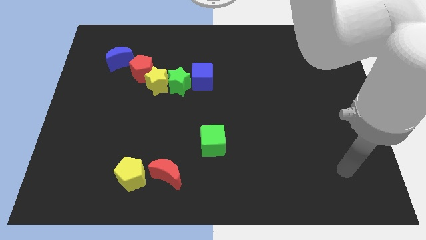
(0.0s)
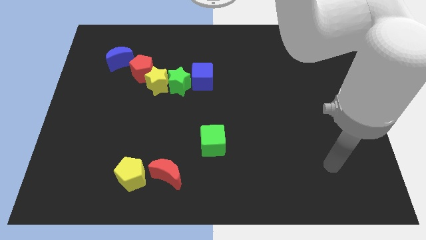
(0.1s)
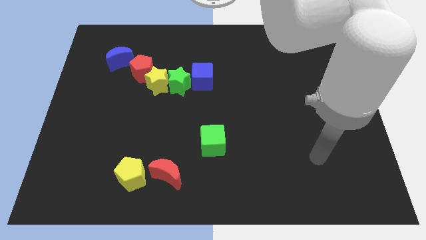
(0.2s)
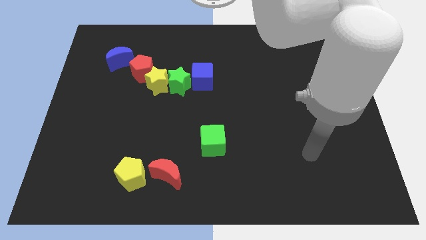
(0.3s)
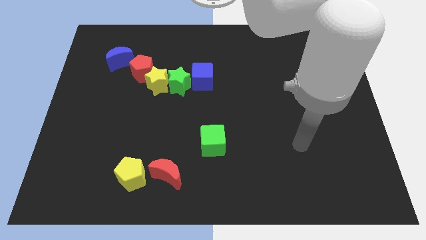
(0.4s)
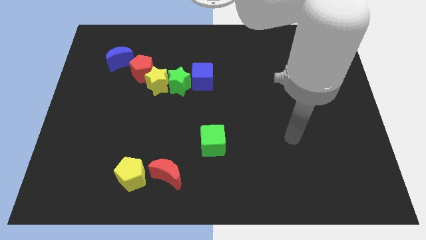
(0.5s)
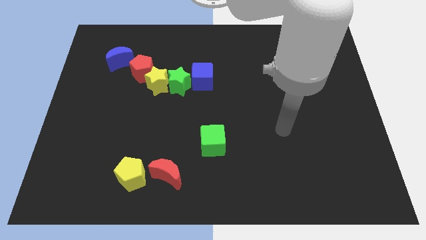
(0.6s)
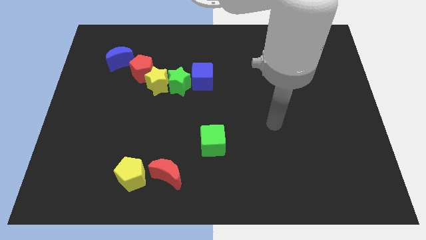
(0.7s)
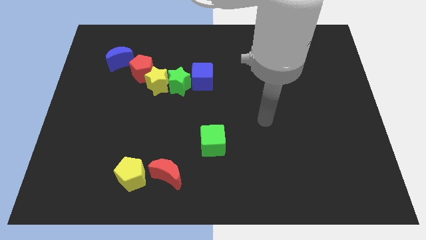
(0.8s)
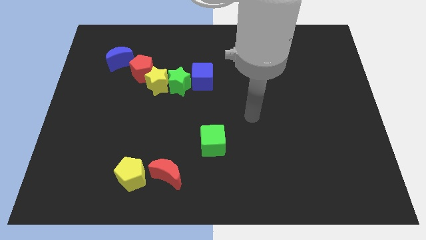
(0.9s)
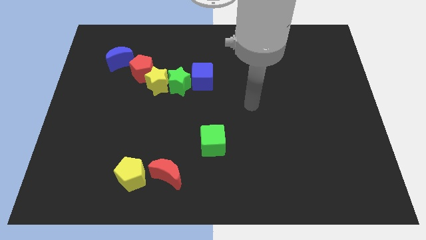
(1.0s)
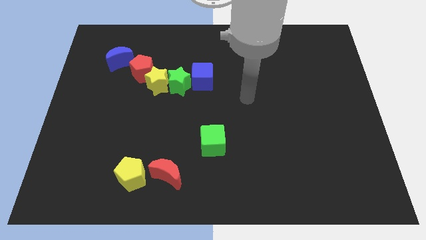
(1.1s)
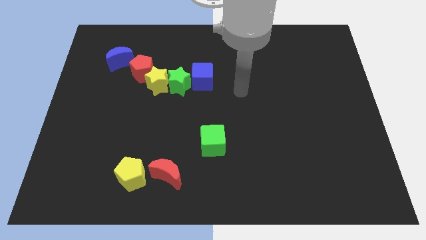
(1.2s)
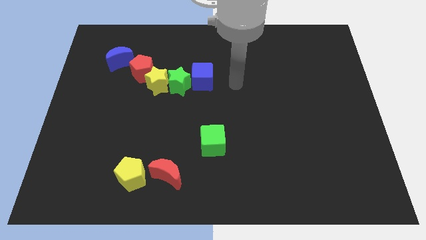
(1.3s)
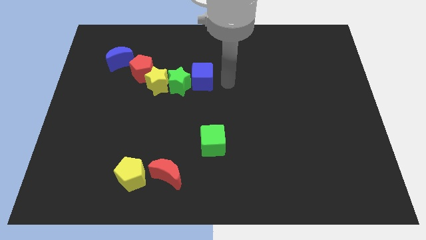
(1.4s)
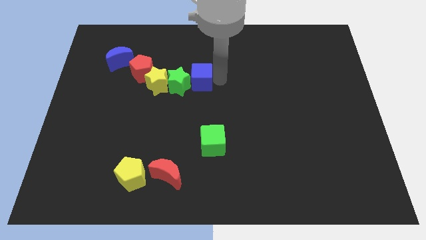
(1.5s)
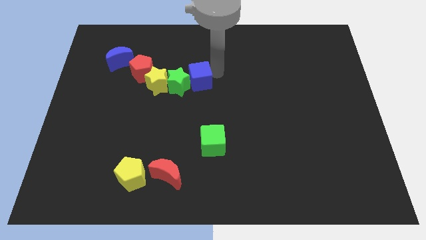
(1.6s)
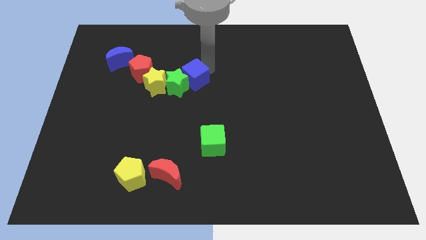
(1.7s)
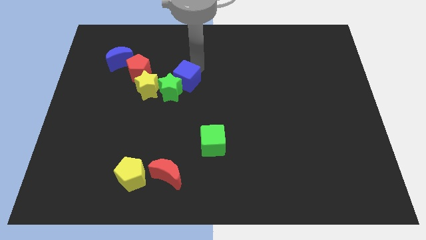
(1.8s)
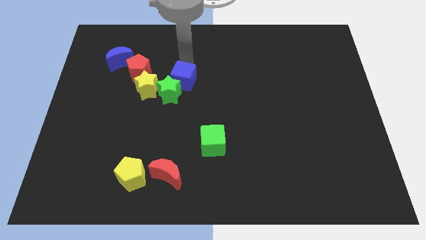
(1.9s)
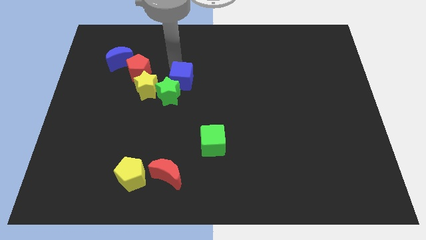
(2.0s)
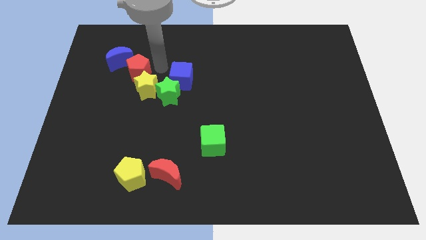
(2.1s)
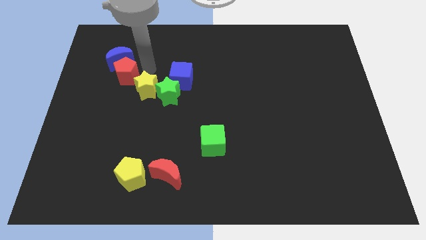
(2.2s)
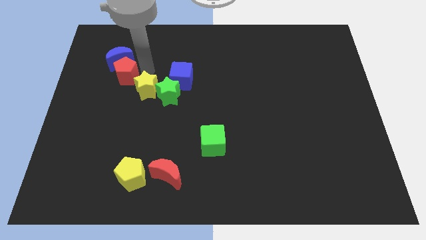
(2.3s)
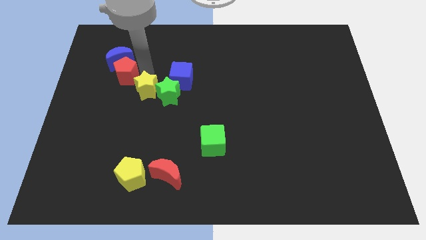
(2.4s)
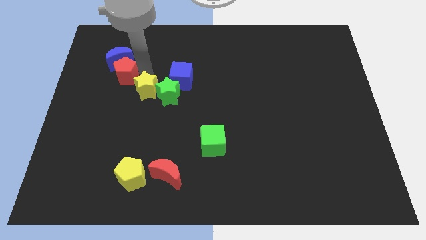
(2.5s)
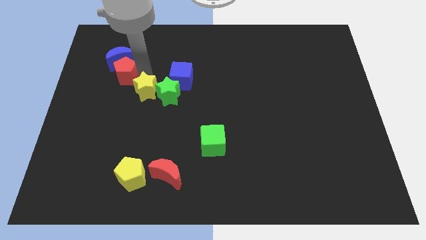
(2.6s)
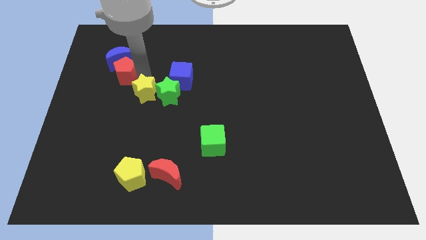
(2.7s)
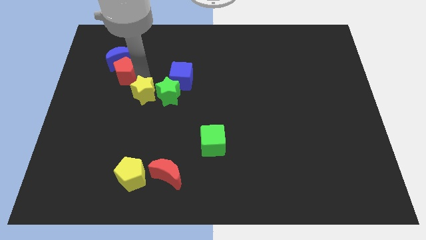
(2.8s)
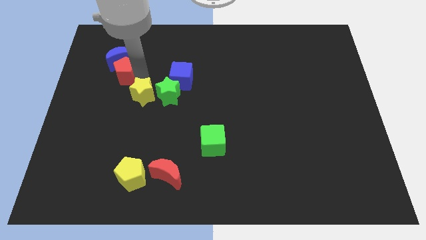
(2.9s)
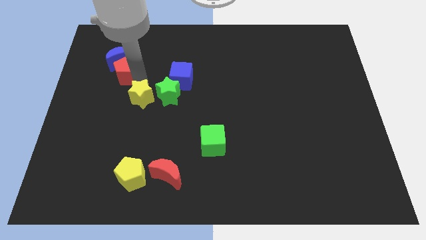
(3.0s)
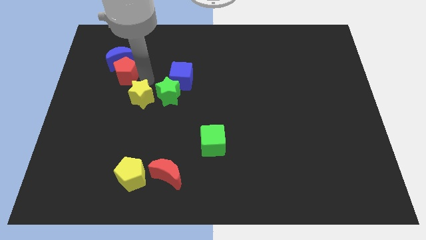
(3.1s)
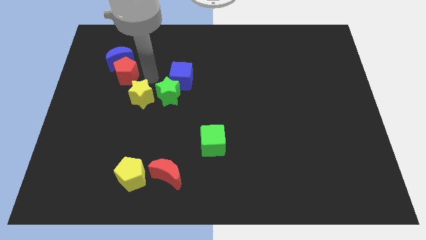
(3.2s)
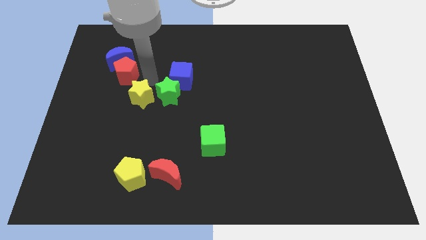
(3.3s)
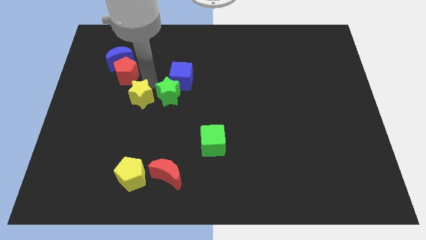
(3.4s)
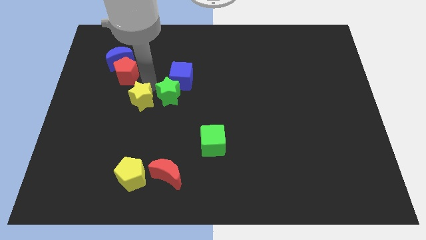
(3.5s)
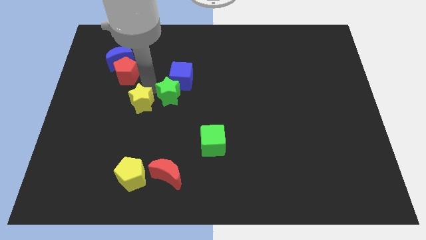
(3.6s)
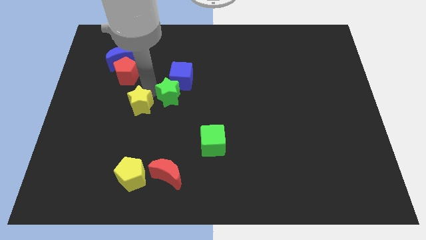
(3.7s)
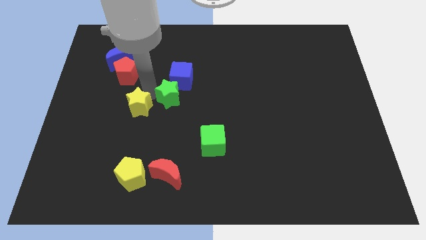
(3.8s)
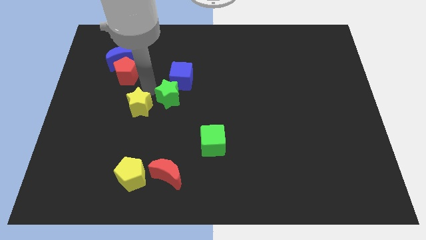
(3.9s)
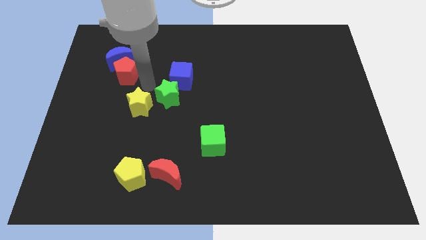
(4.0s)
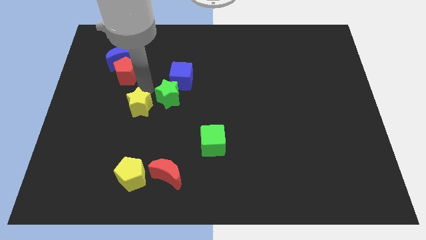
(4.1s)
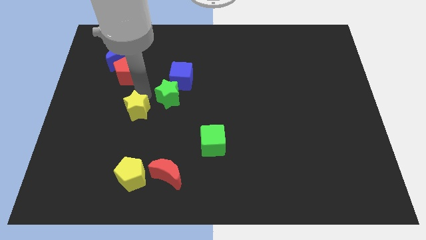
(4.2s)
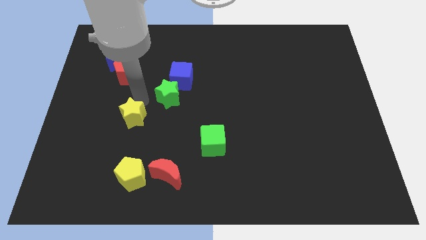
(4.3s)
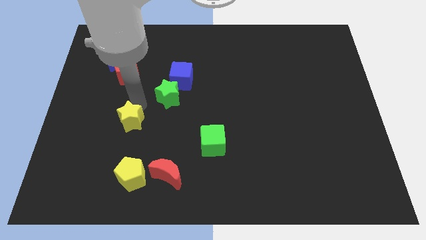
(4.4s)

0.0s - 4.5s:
move the yellow star away from the green star and red pentagon

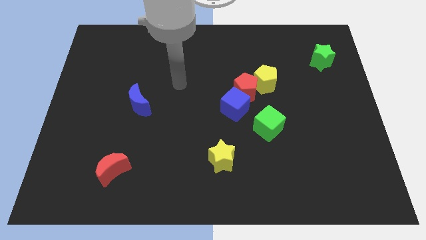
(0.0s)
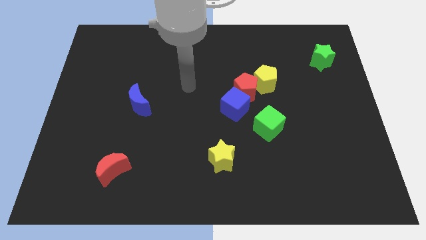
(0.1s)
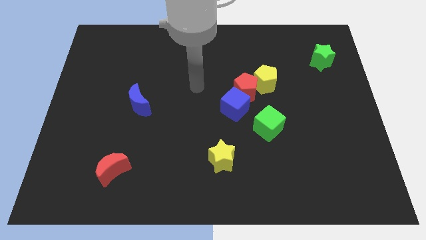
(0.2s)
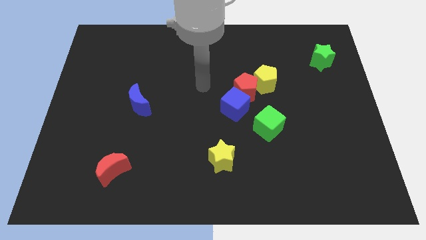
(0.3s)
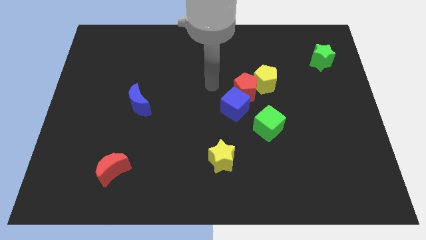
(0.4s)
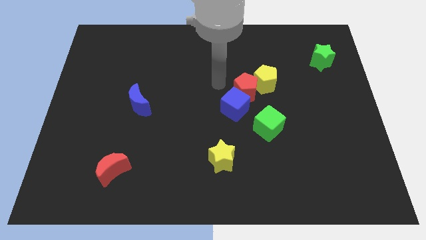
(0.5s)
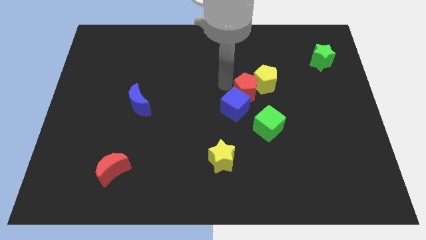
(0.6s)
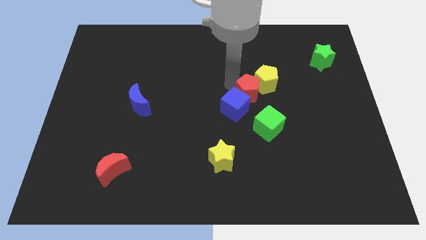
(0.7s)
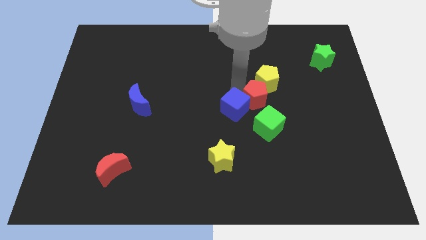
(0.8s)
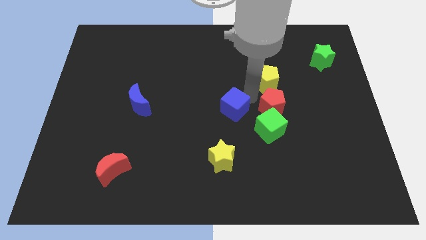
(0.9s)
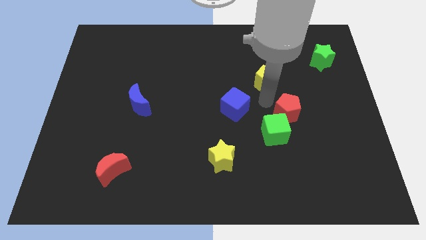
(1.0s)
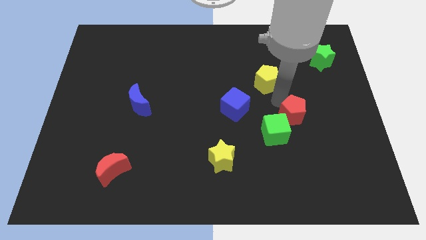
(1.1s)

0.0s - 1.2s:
move the yellow pentagon away from the red pentagon

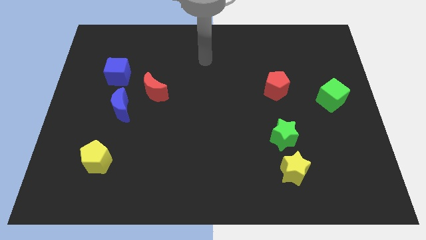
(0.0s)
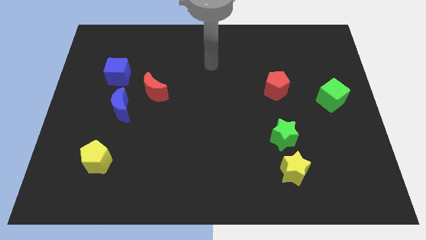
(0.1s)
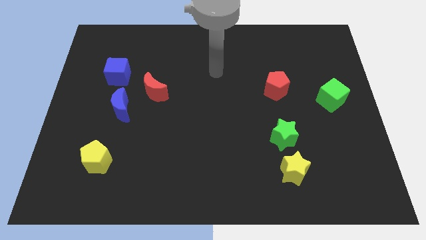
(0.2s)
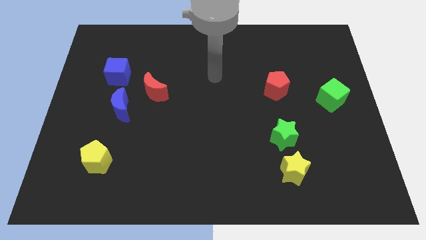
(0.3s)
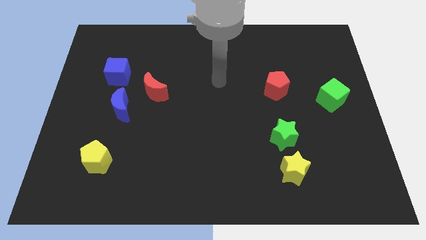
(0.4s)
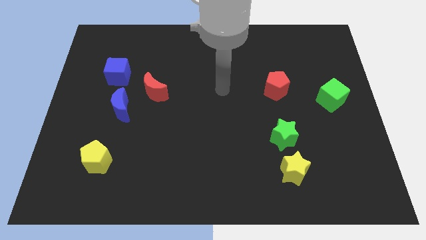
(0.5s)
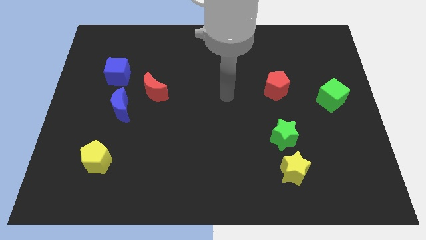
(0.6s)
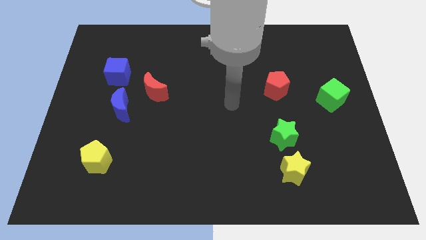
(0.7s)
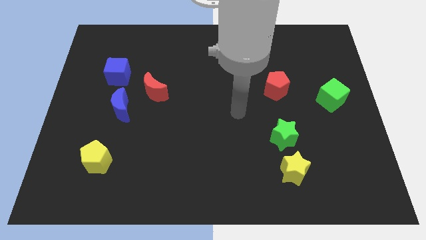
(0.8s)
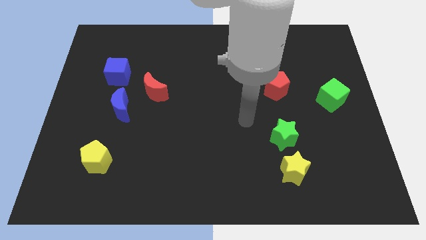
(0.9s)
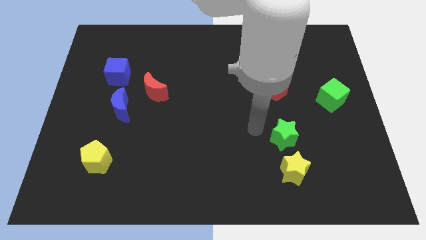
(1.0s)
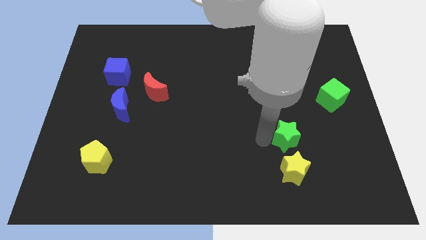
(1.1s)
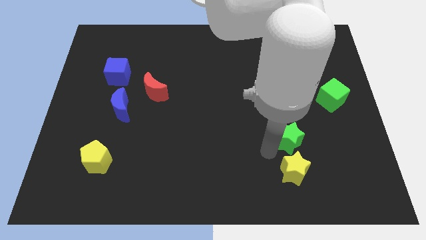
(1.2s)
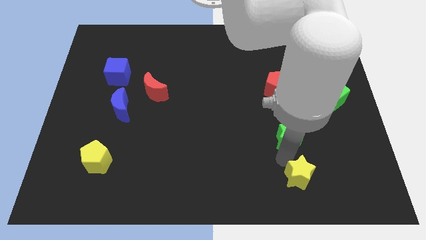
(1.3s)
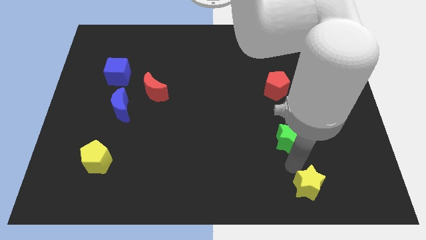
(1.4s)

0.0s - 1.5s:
separate the green star from the yellow star

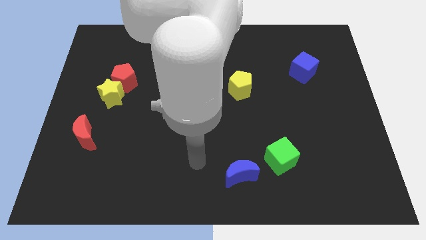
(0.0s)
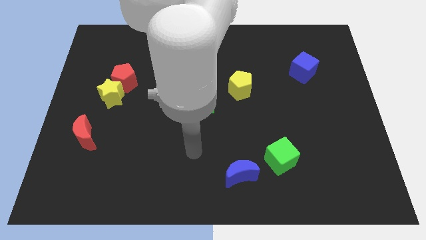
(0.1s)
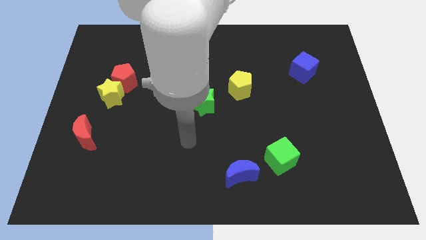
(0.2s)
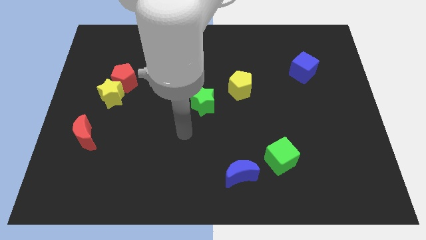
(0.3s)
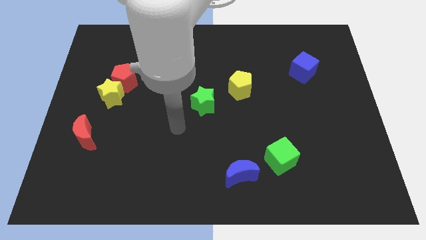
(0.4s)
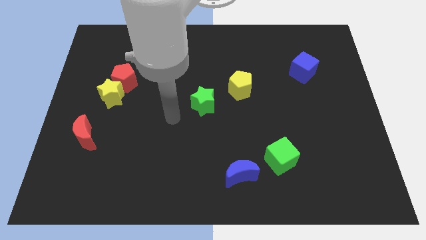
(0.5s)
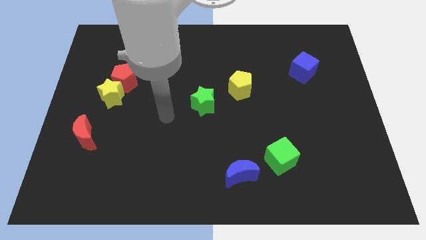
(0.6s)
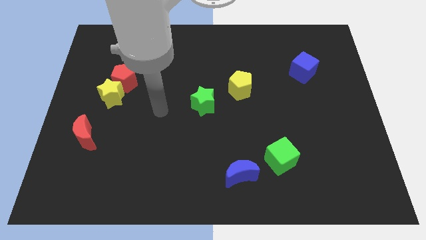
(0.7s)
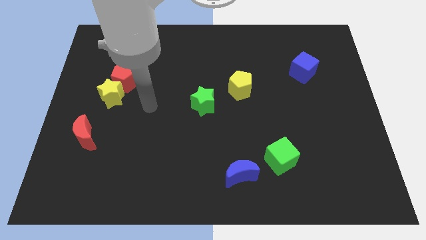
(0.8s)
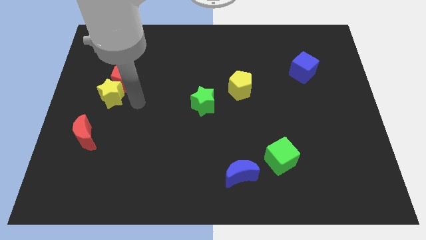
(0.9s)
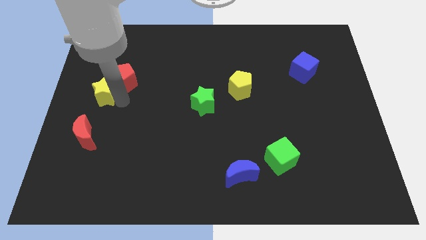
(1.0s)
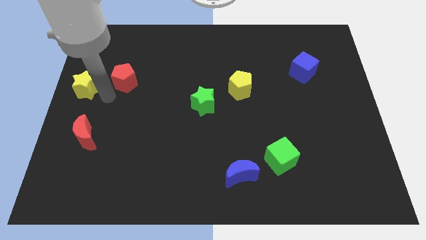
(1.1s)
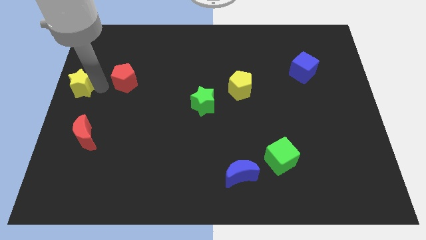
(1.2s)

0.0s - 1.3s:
move the red pentagon away from the yellow star

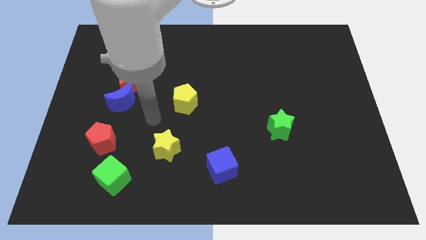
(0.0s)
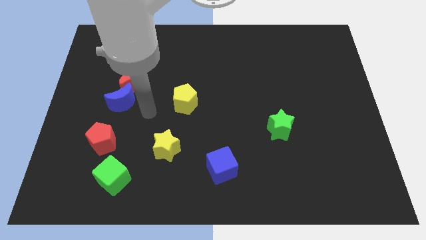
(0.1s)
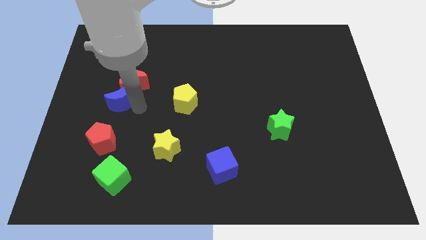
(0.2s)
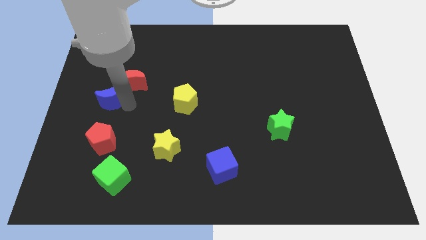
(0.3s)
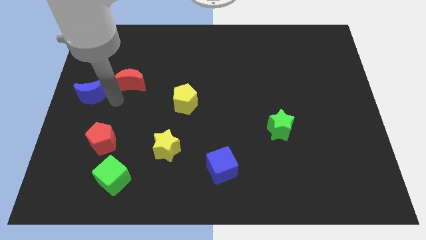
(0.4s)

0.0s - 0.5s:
move the red moon away from the blue moon

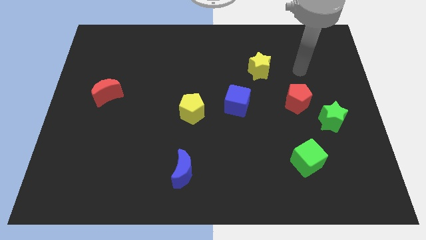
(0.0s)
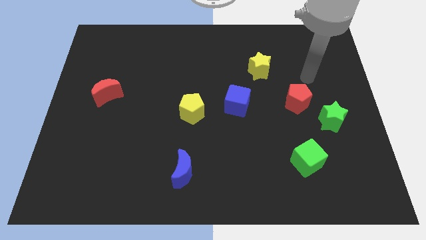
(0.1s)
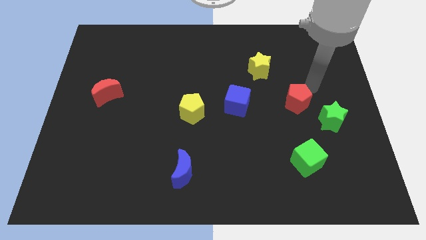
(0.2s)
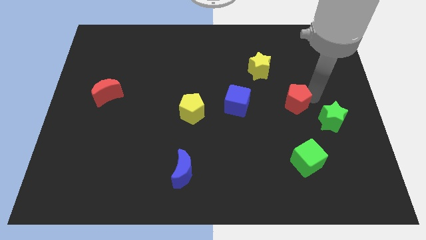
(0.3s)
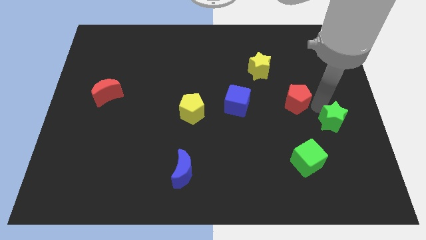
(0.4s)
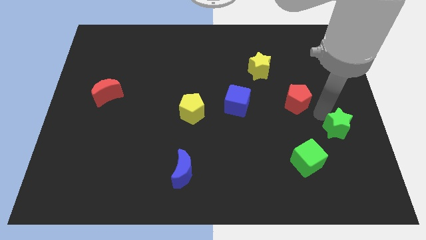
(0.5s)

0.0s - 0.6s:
pull the red pentagon apart from the green star
